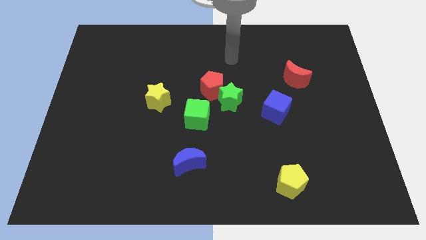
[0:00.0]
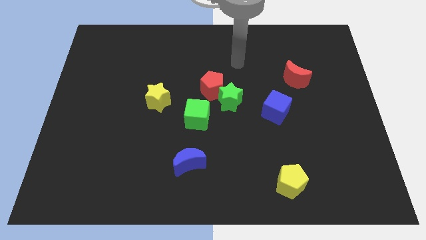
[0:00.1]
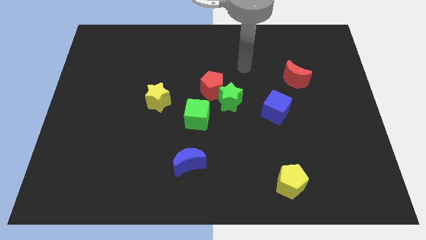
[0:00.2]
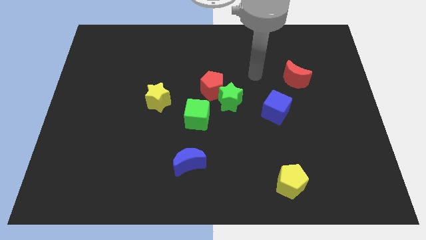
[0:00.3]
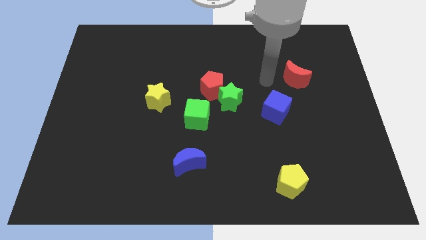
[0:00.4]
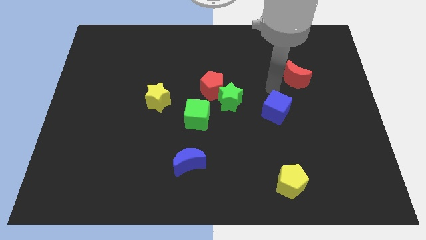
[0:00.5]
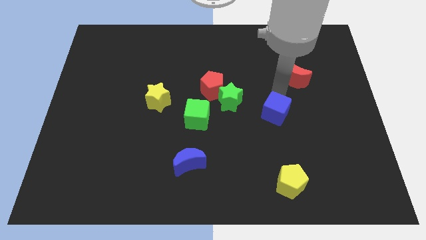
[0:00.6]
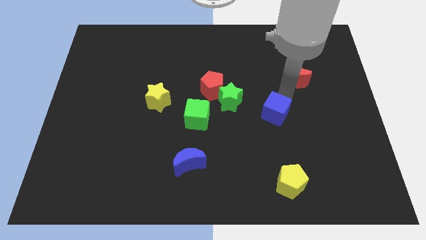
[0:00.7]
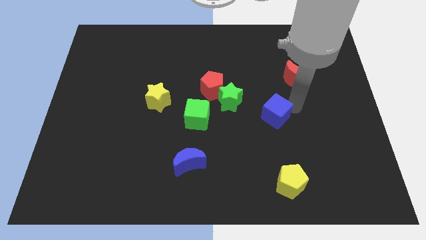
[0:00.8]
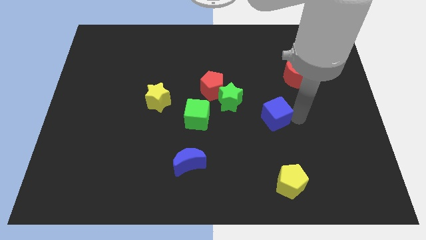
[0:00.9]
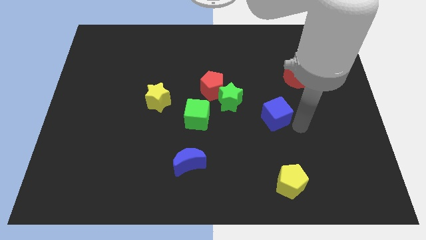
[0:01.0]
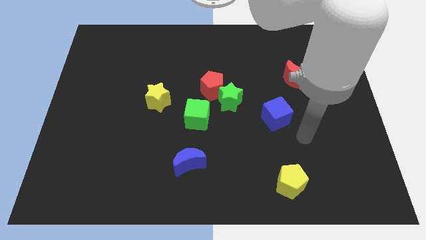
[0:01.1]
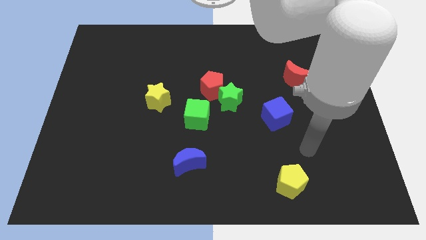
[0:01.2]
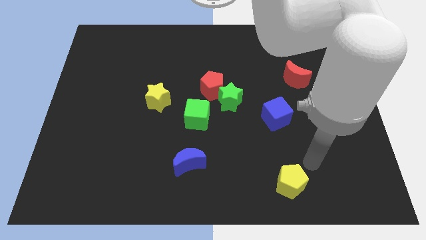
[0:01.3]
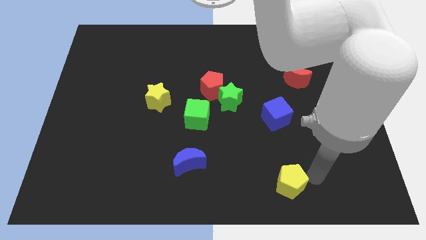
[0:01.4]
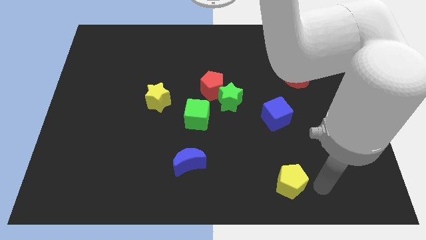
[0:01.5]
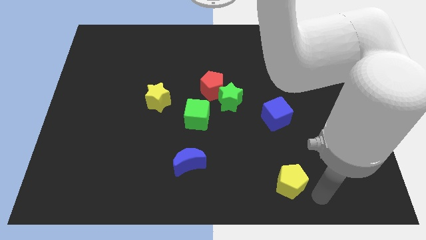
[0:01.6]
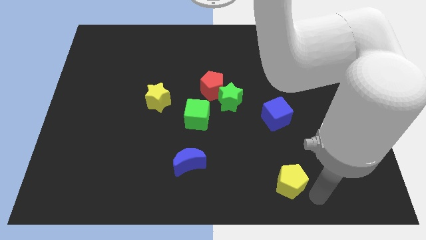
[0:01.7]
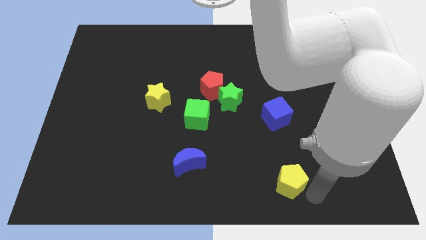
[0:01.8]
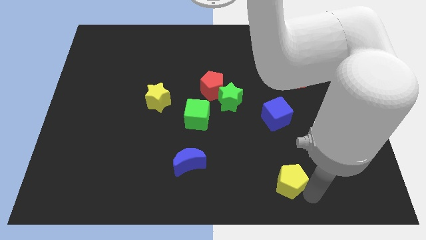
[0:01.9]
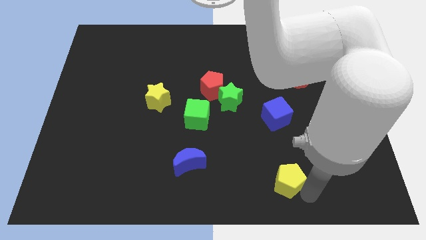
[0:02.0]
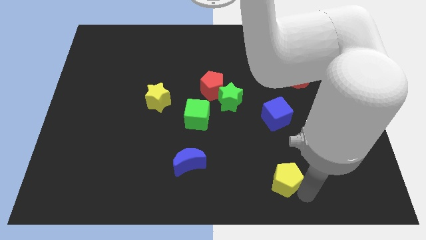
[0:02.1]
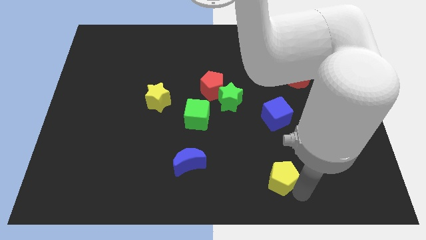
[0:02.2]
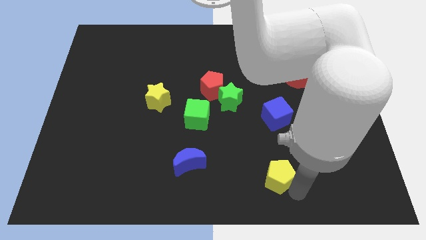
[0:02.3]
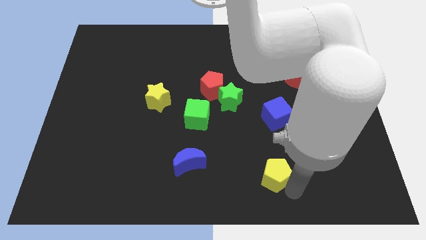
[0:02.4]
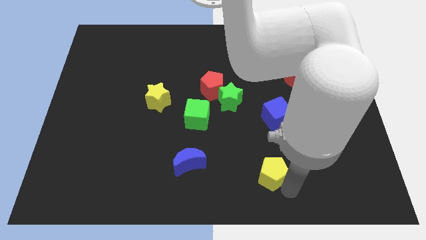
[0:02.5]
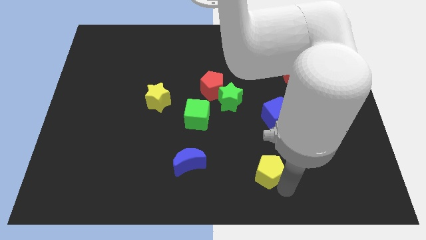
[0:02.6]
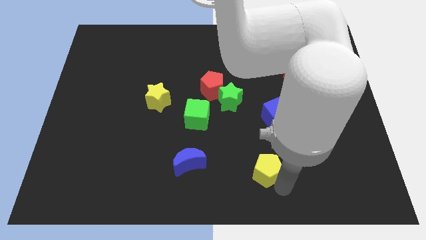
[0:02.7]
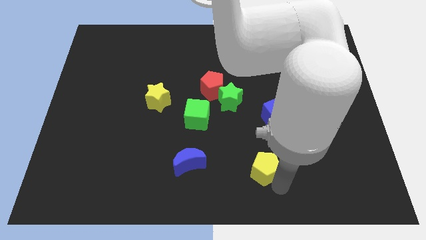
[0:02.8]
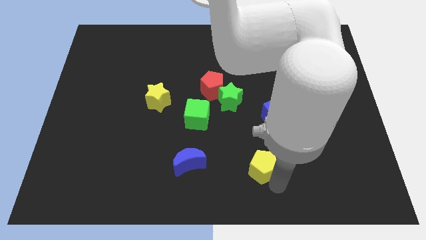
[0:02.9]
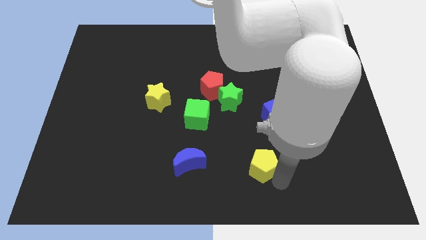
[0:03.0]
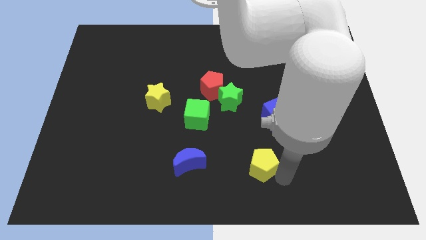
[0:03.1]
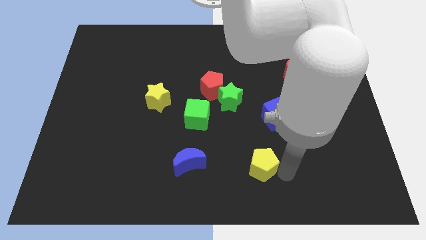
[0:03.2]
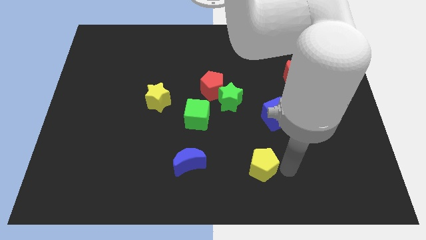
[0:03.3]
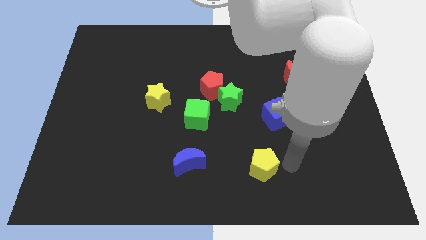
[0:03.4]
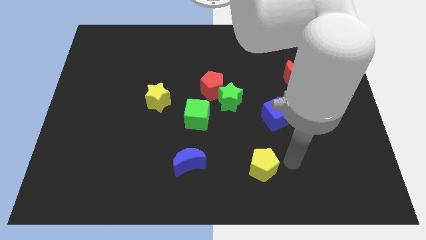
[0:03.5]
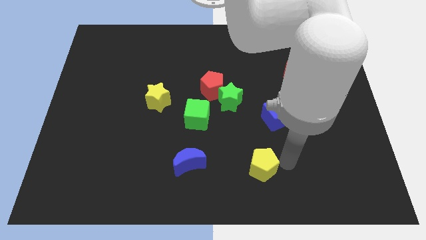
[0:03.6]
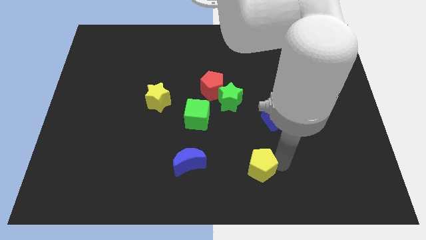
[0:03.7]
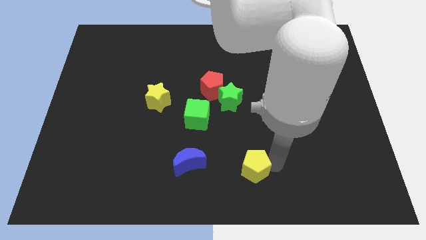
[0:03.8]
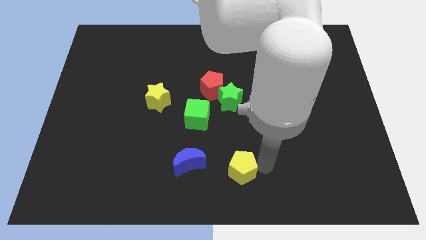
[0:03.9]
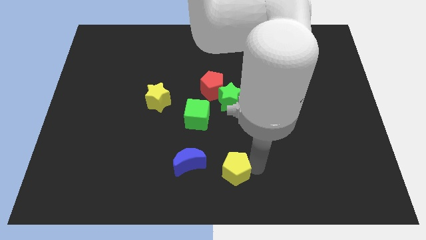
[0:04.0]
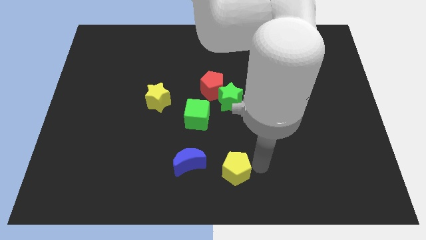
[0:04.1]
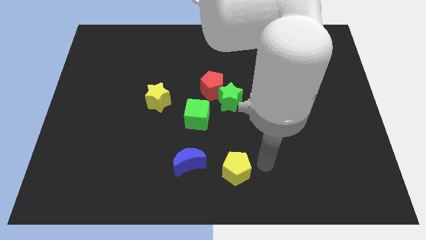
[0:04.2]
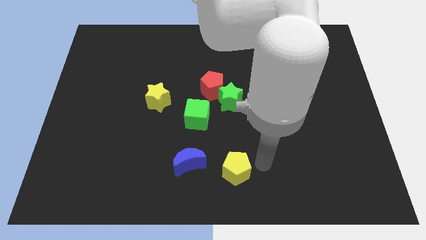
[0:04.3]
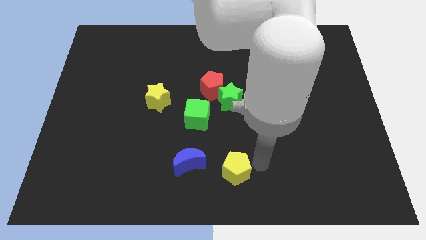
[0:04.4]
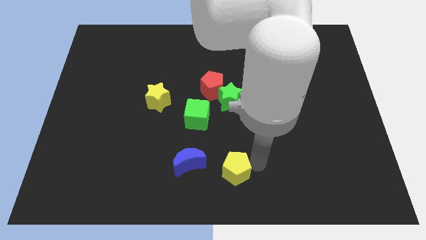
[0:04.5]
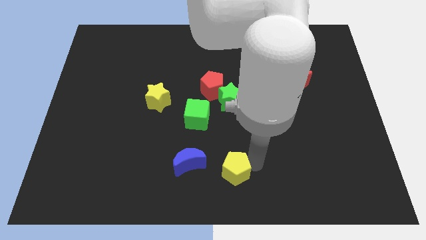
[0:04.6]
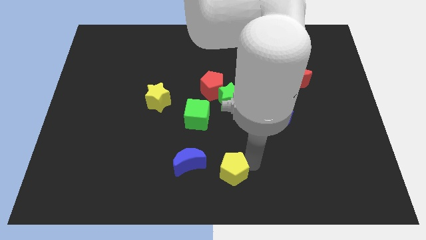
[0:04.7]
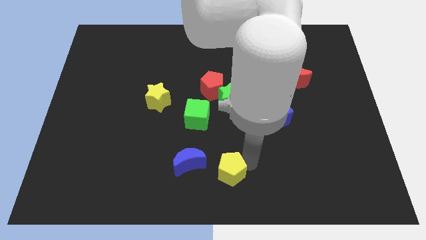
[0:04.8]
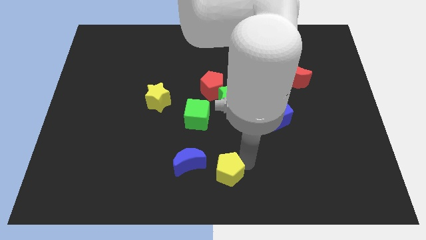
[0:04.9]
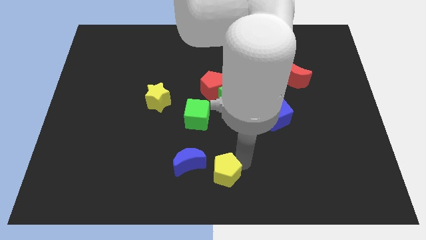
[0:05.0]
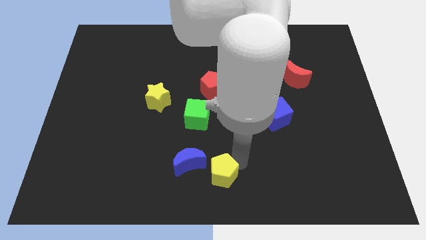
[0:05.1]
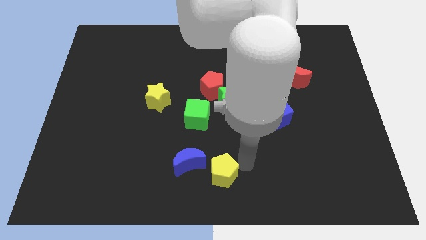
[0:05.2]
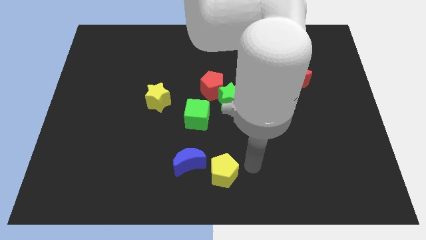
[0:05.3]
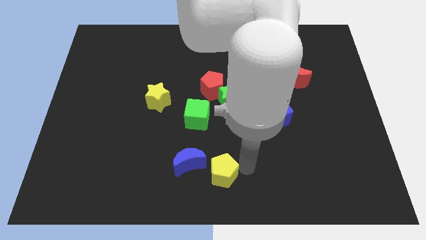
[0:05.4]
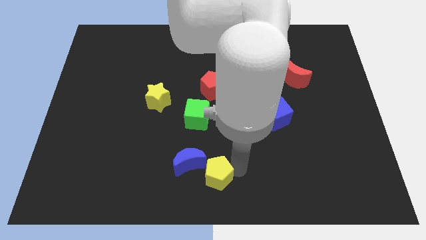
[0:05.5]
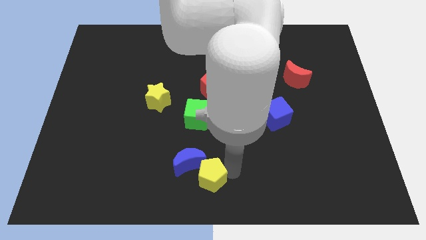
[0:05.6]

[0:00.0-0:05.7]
push the yellow pentagon to the bottom of the green cube

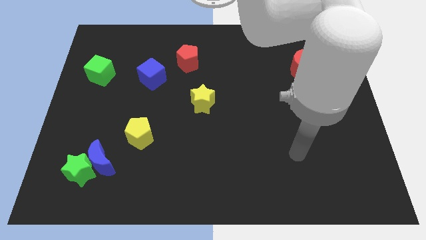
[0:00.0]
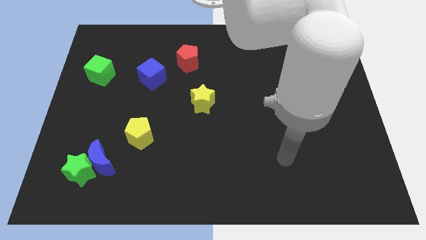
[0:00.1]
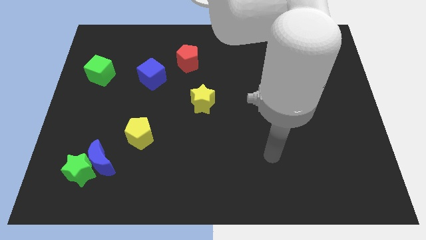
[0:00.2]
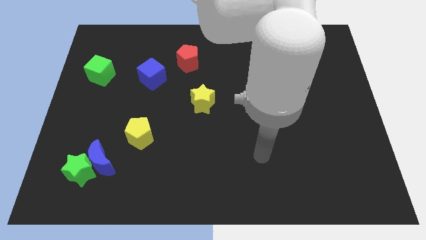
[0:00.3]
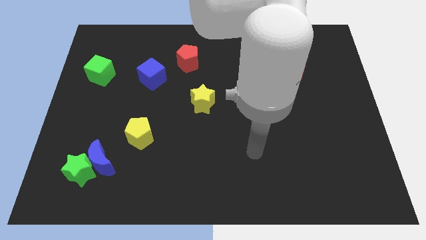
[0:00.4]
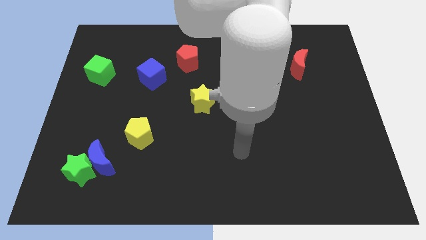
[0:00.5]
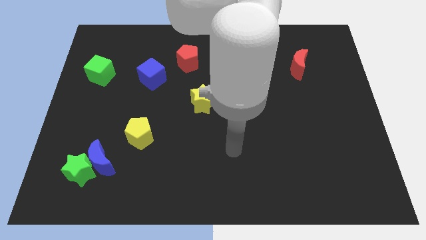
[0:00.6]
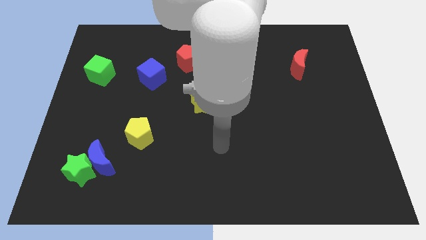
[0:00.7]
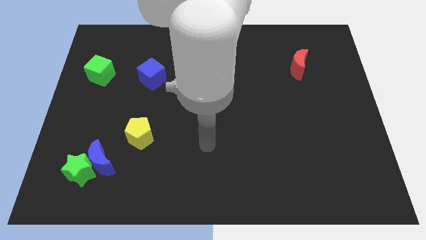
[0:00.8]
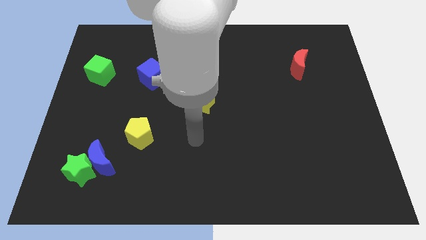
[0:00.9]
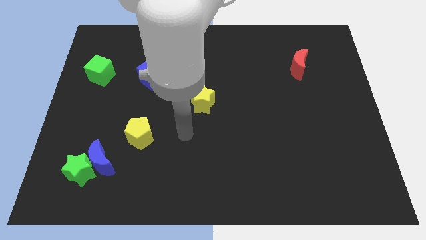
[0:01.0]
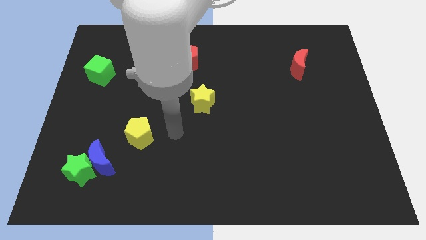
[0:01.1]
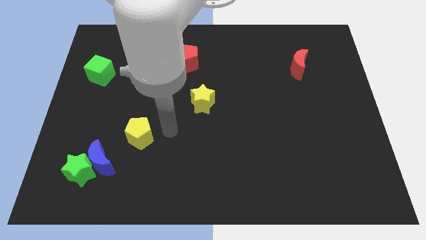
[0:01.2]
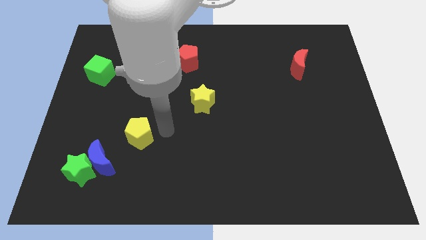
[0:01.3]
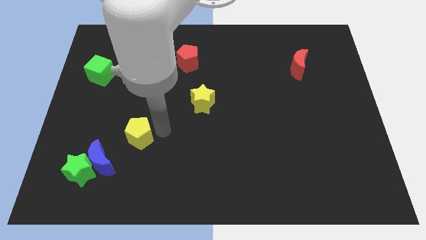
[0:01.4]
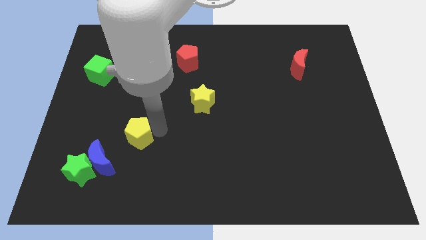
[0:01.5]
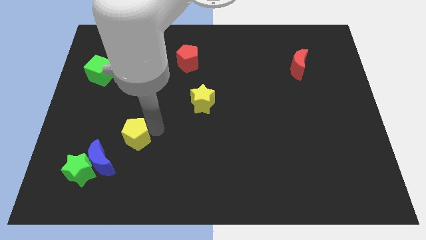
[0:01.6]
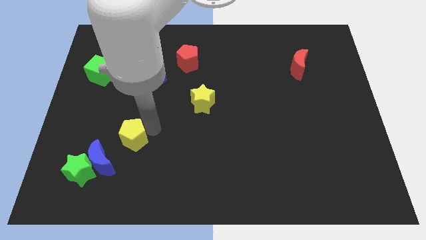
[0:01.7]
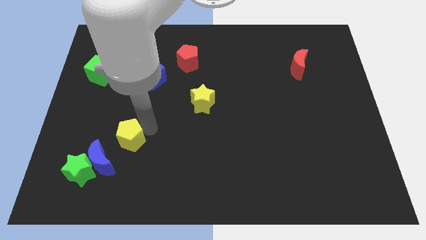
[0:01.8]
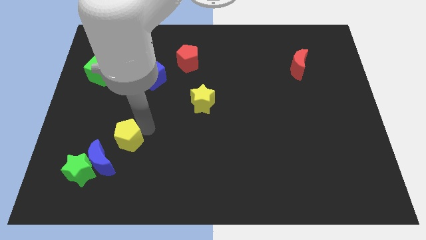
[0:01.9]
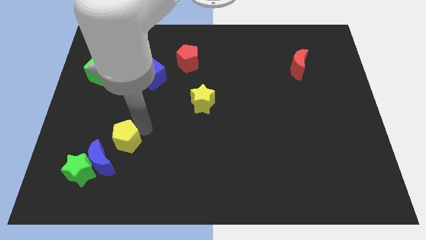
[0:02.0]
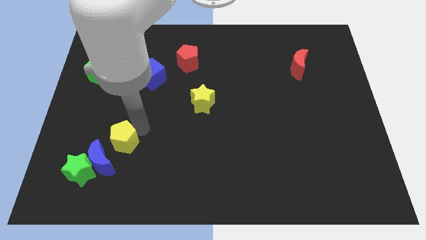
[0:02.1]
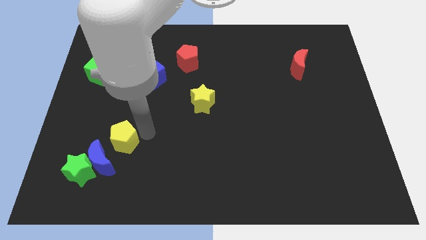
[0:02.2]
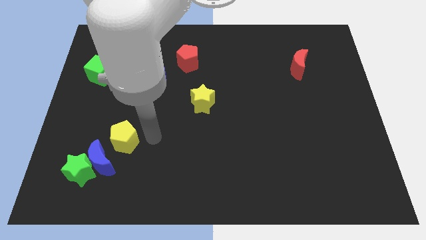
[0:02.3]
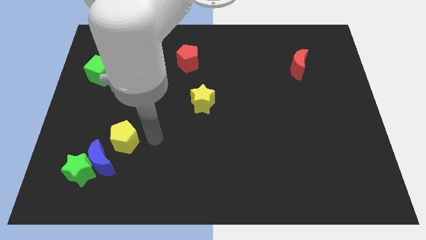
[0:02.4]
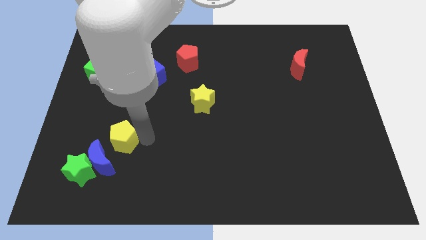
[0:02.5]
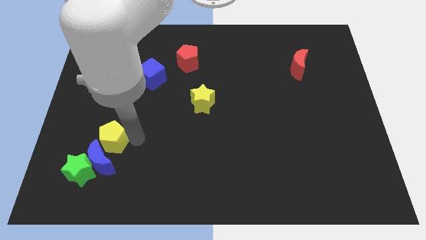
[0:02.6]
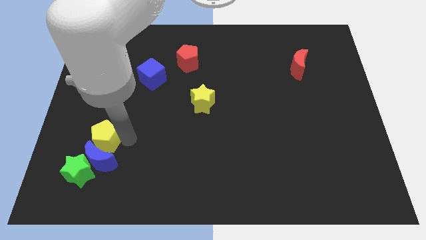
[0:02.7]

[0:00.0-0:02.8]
push the yellow pentagon diagonally up and to the left of the blue moon
